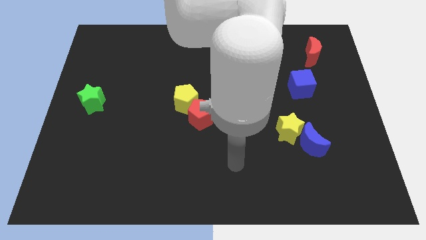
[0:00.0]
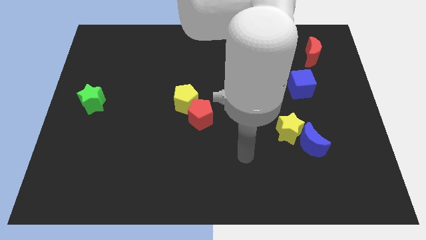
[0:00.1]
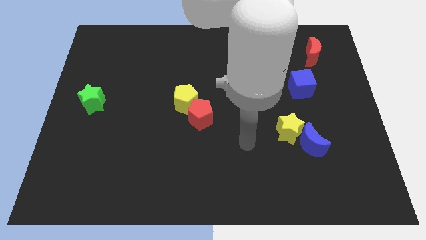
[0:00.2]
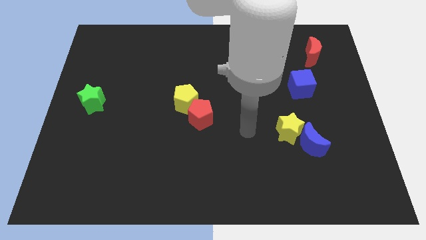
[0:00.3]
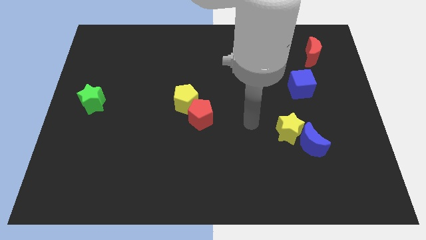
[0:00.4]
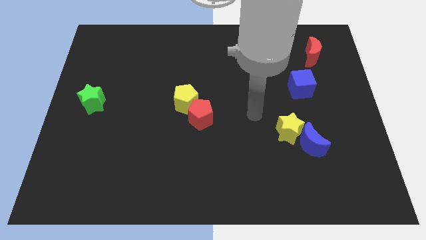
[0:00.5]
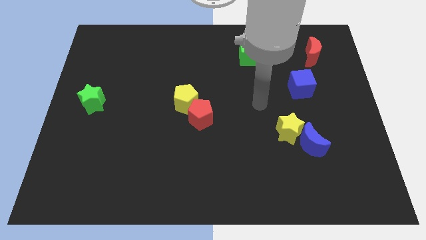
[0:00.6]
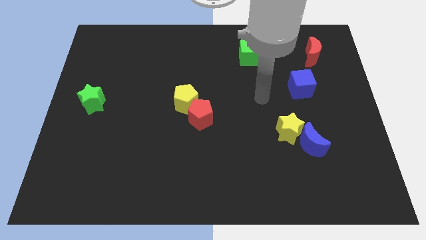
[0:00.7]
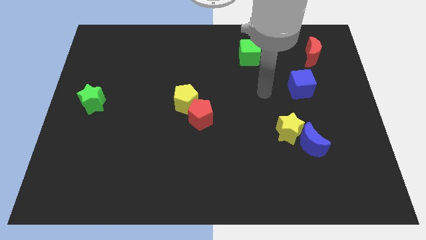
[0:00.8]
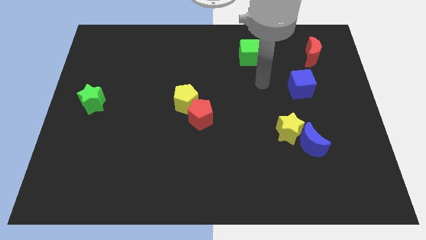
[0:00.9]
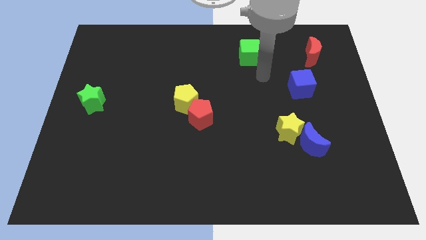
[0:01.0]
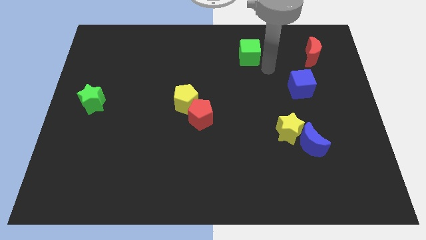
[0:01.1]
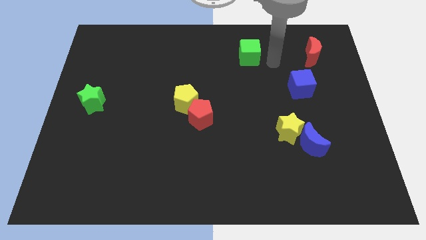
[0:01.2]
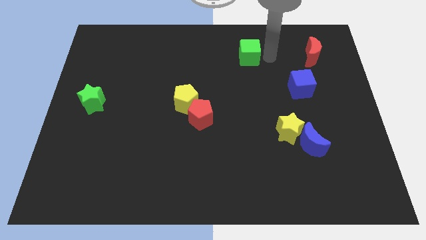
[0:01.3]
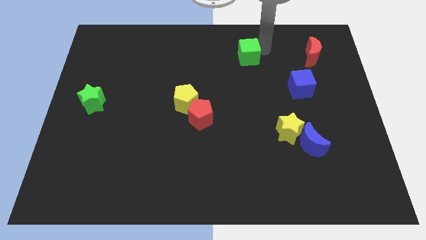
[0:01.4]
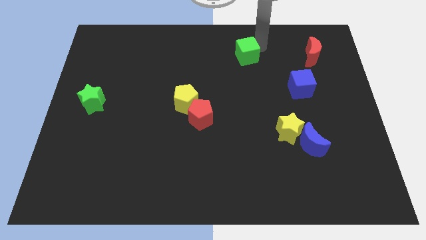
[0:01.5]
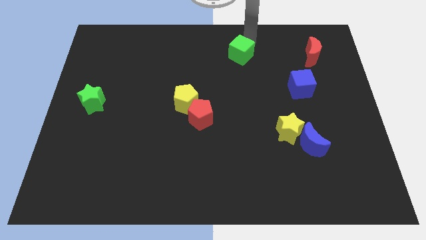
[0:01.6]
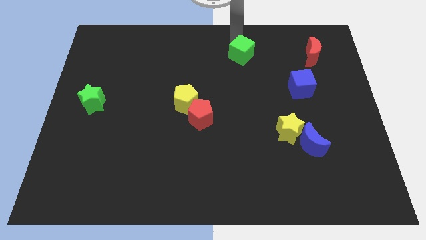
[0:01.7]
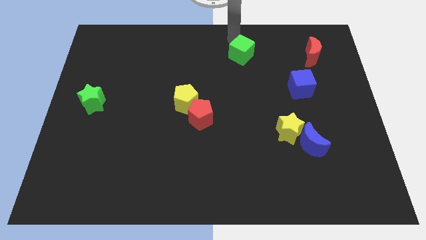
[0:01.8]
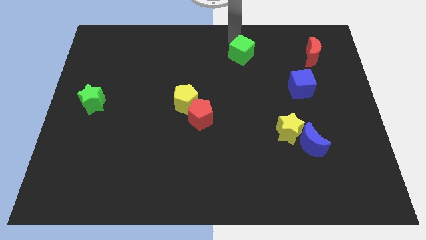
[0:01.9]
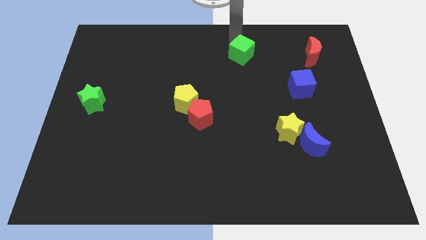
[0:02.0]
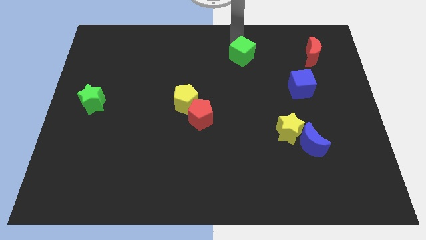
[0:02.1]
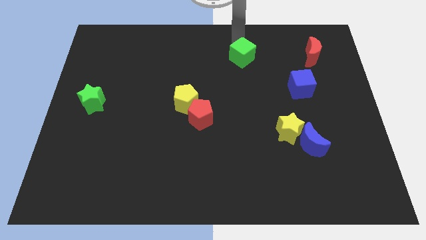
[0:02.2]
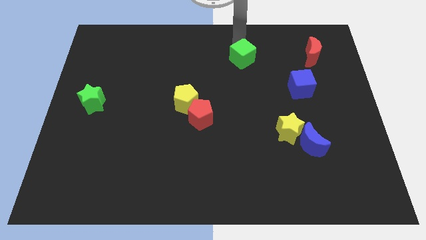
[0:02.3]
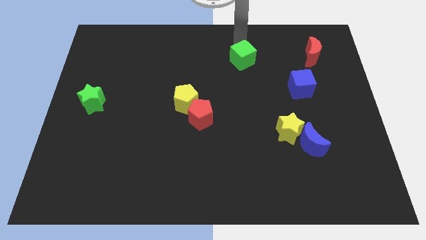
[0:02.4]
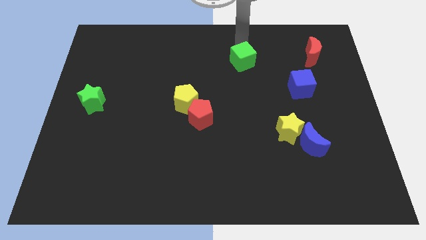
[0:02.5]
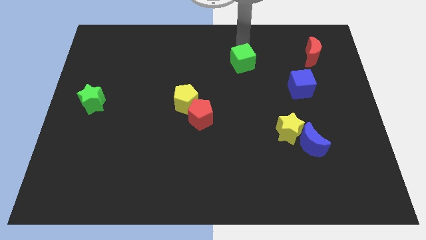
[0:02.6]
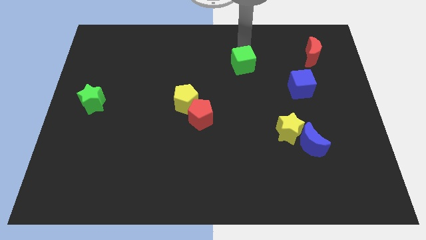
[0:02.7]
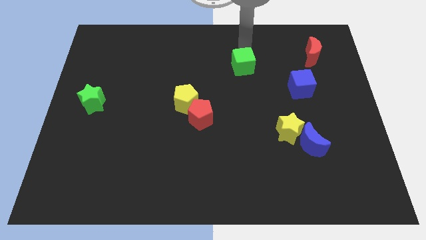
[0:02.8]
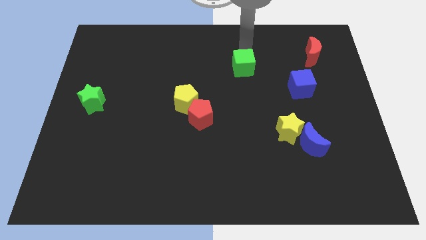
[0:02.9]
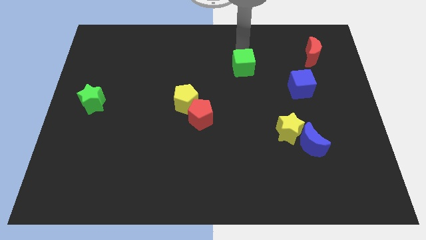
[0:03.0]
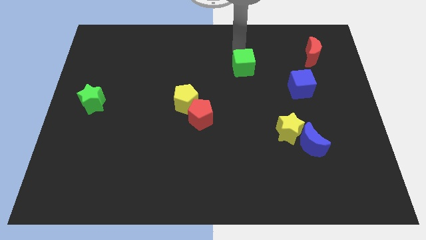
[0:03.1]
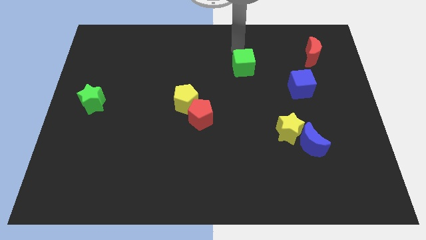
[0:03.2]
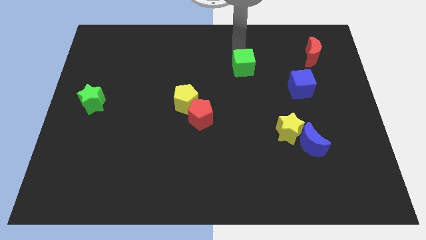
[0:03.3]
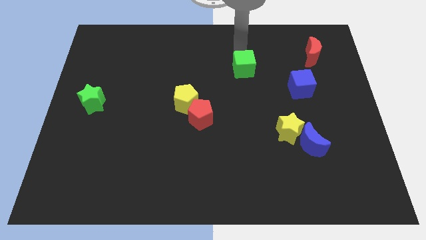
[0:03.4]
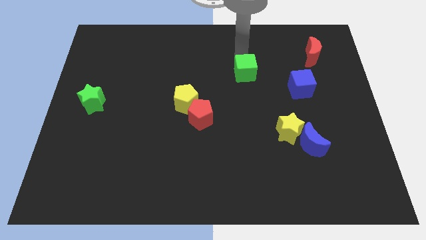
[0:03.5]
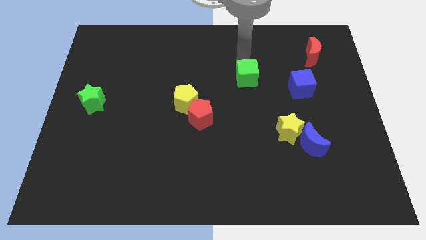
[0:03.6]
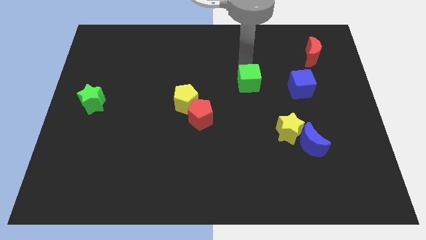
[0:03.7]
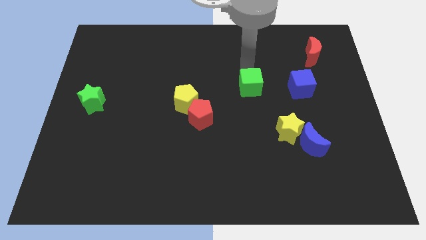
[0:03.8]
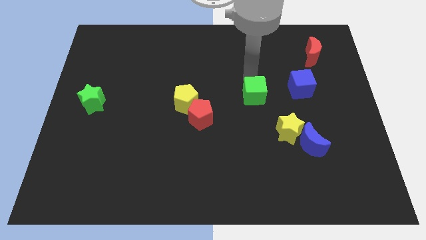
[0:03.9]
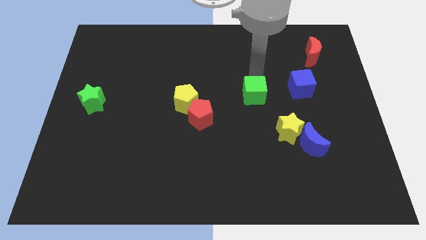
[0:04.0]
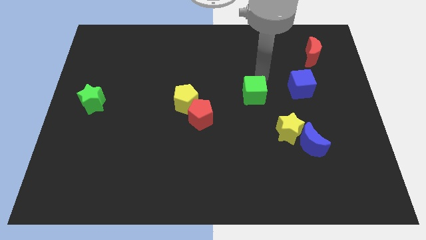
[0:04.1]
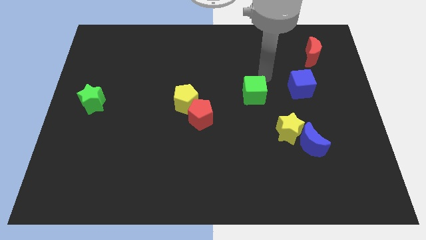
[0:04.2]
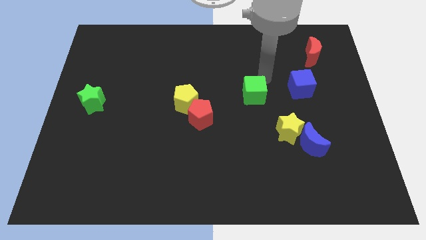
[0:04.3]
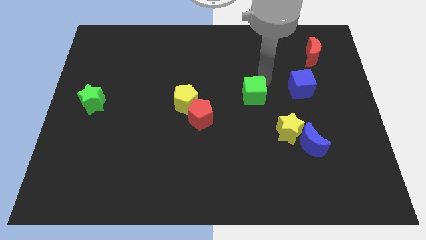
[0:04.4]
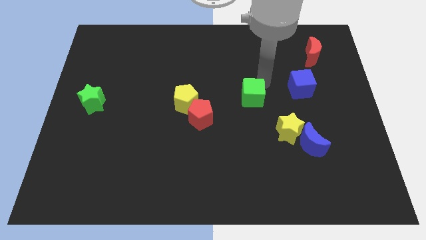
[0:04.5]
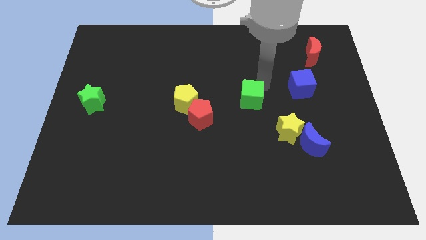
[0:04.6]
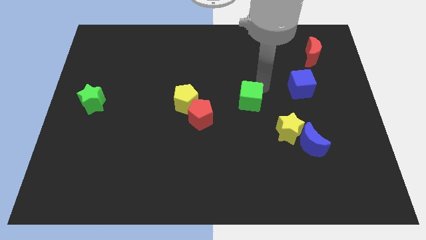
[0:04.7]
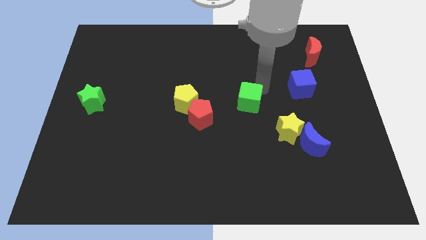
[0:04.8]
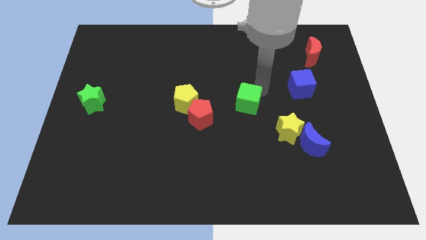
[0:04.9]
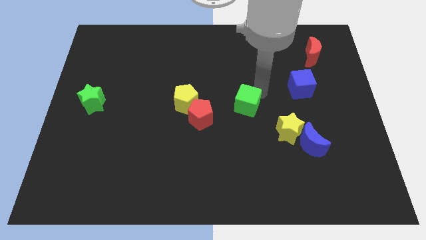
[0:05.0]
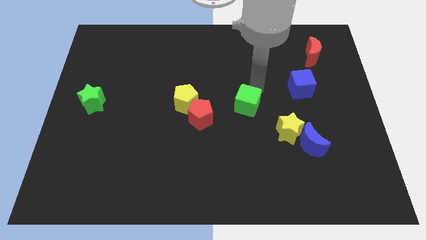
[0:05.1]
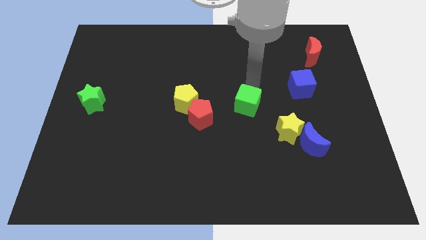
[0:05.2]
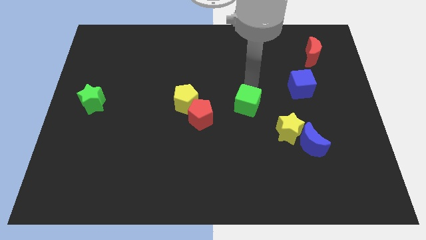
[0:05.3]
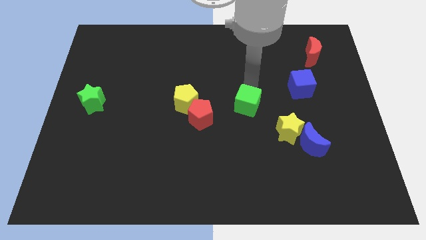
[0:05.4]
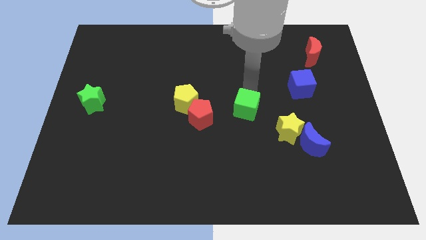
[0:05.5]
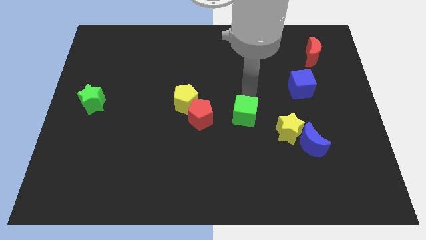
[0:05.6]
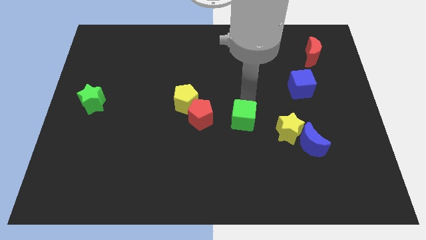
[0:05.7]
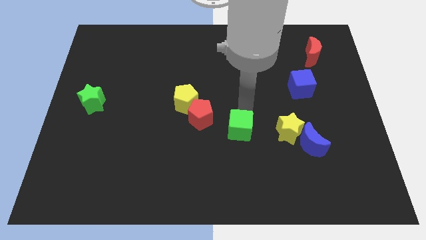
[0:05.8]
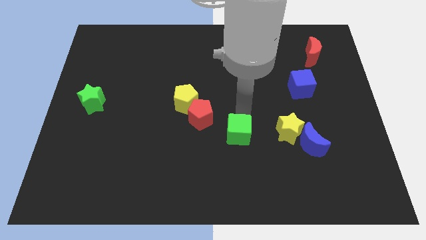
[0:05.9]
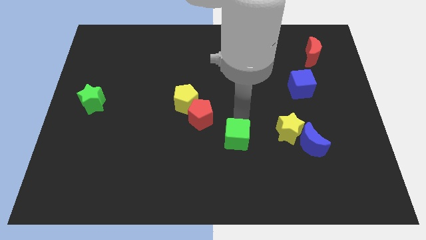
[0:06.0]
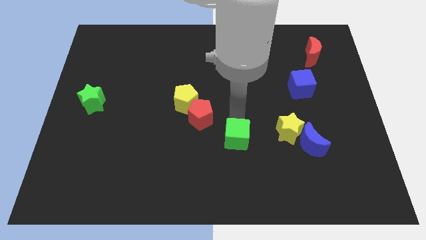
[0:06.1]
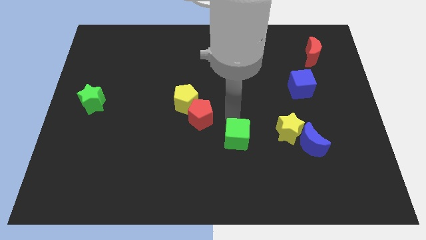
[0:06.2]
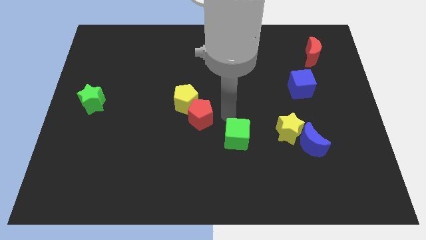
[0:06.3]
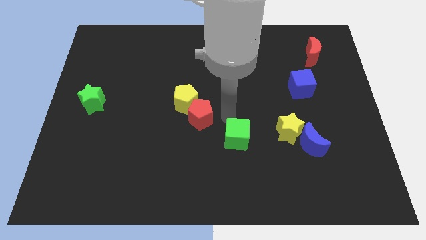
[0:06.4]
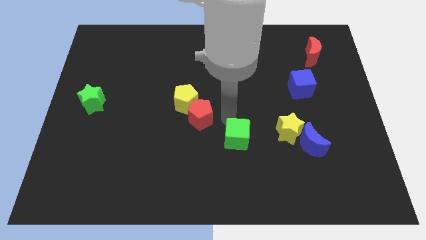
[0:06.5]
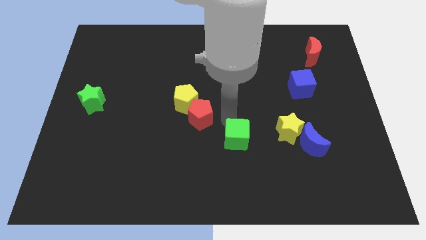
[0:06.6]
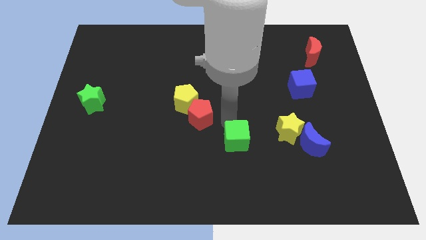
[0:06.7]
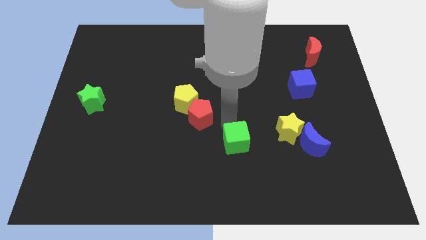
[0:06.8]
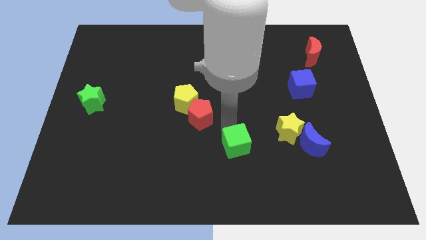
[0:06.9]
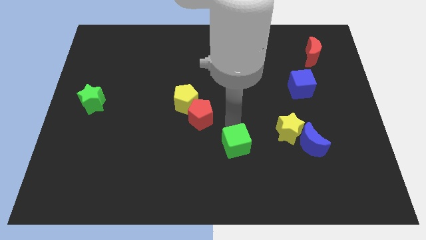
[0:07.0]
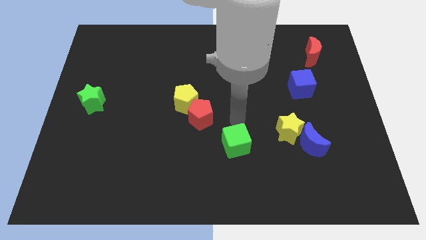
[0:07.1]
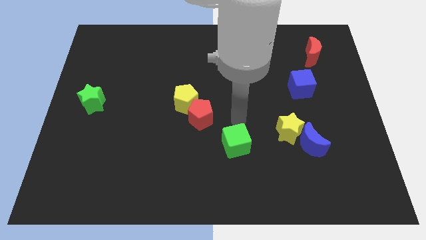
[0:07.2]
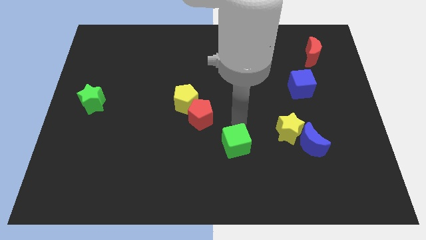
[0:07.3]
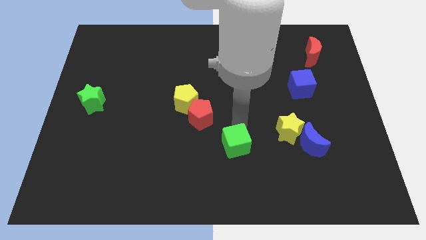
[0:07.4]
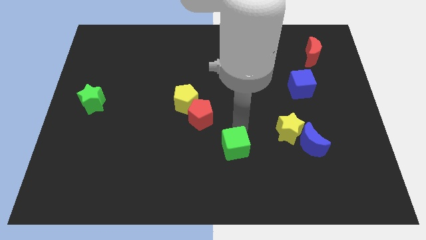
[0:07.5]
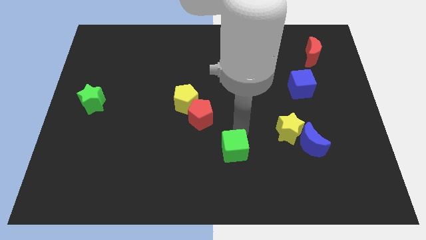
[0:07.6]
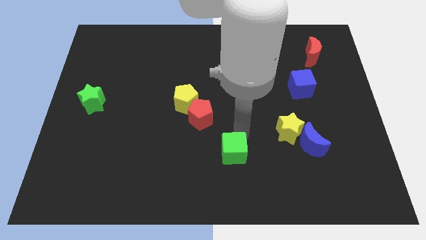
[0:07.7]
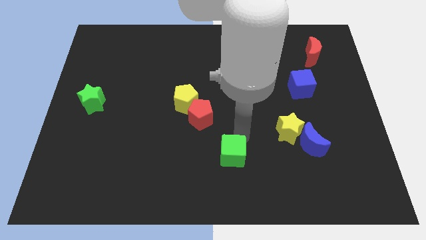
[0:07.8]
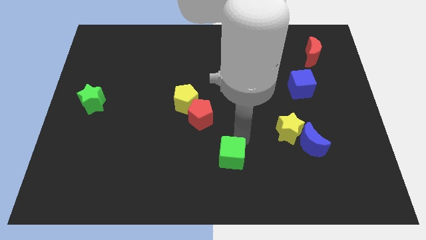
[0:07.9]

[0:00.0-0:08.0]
put the green cube to the bottom

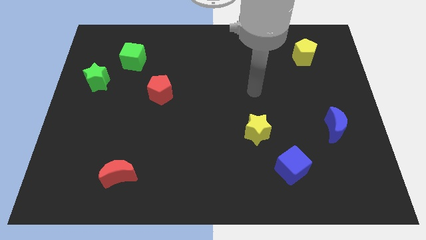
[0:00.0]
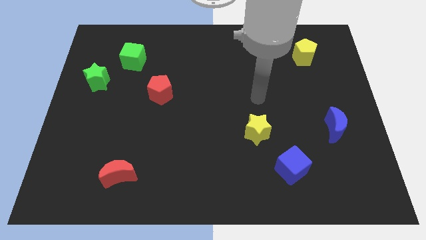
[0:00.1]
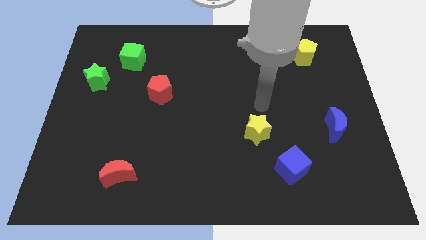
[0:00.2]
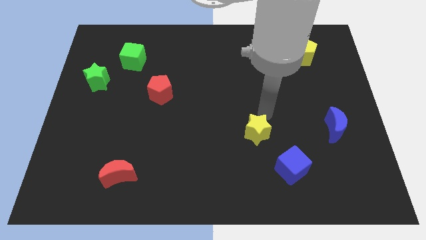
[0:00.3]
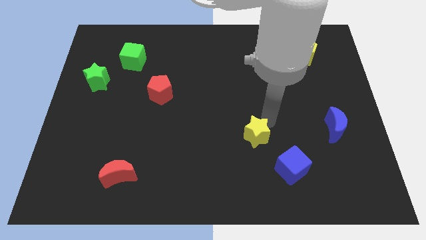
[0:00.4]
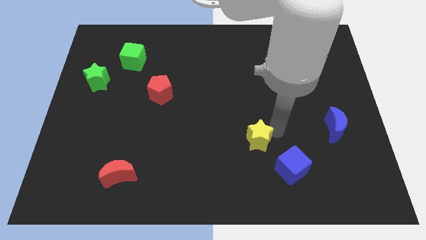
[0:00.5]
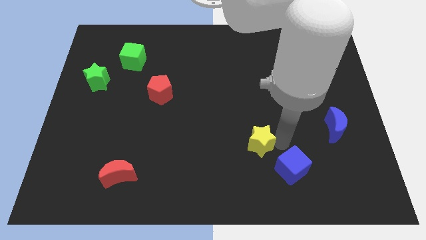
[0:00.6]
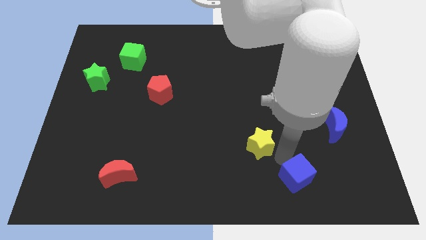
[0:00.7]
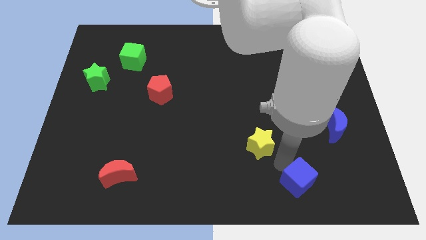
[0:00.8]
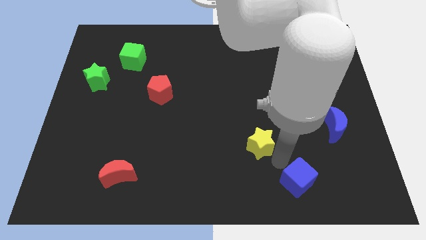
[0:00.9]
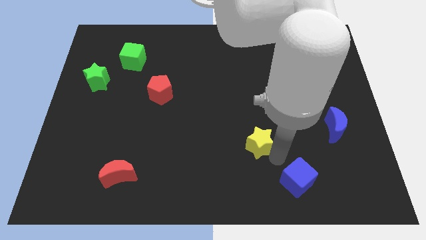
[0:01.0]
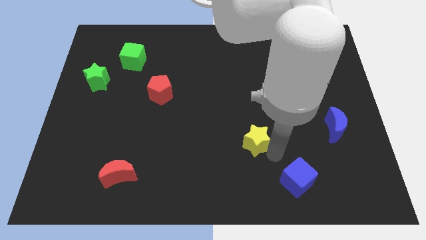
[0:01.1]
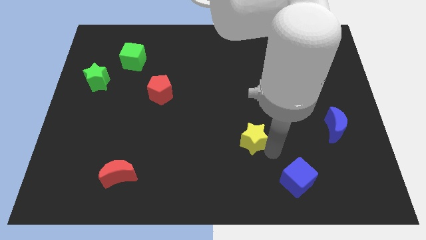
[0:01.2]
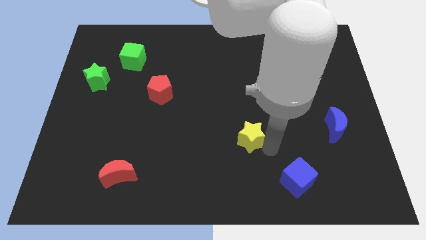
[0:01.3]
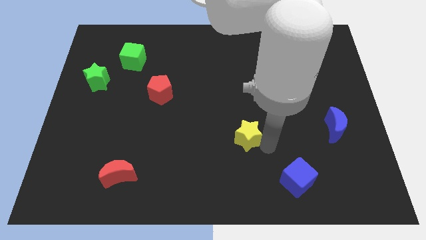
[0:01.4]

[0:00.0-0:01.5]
put the yellow star to the center
